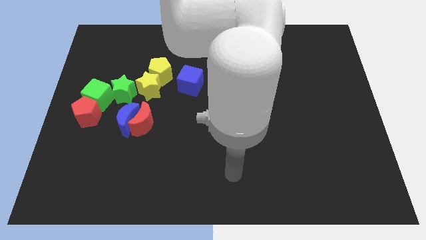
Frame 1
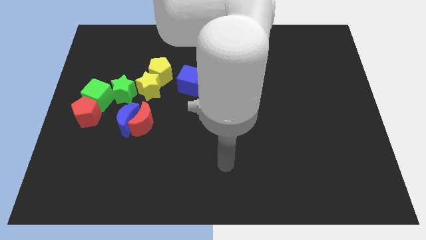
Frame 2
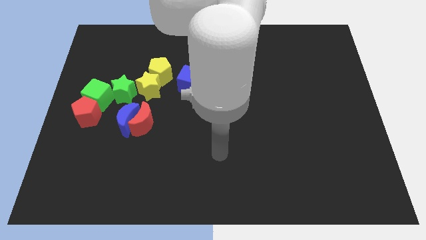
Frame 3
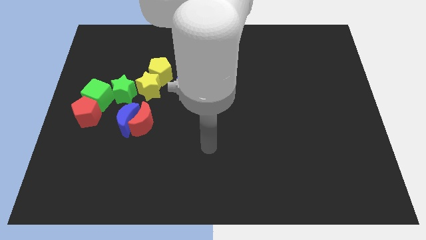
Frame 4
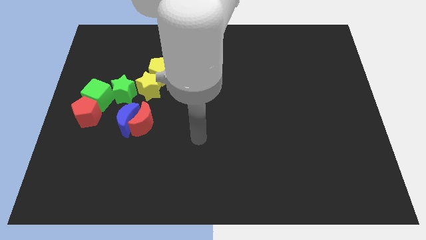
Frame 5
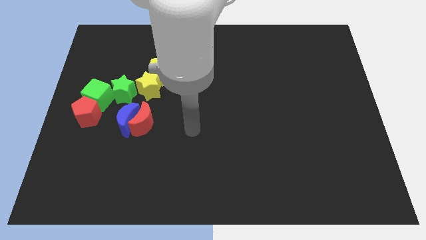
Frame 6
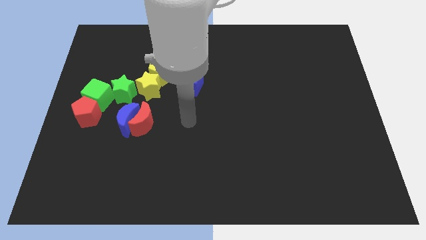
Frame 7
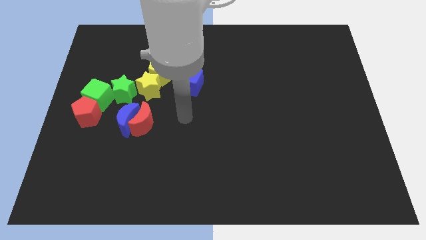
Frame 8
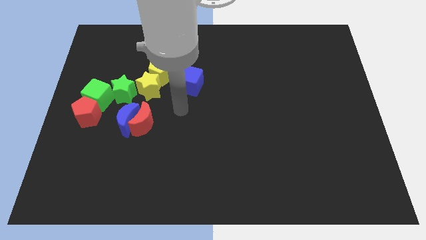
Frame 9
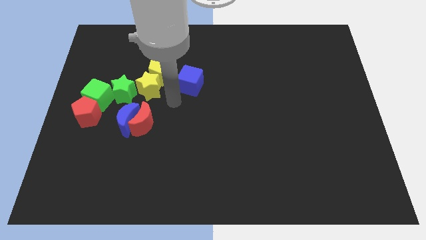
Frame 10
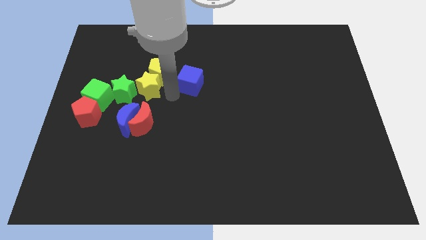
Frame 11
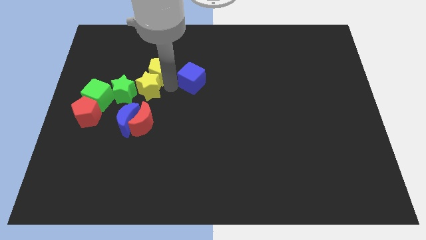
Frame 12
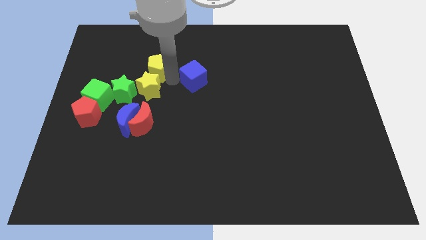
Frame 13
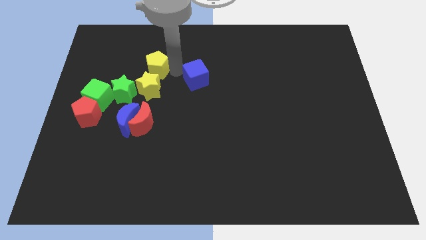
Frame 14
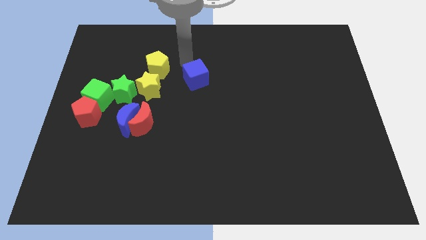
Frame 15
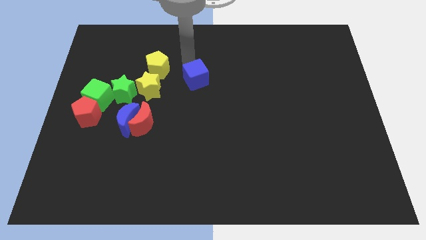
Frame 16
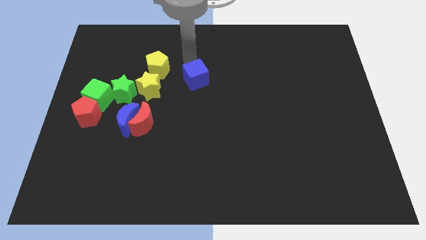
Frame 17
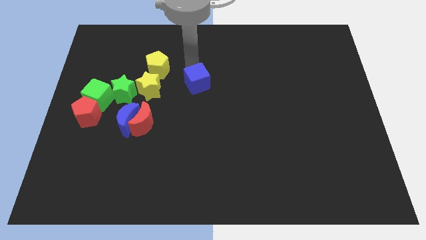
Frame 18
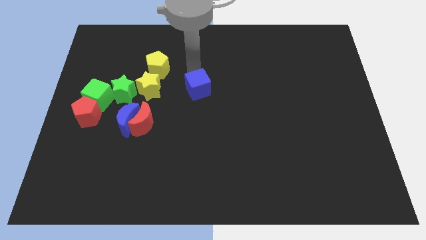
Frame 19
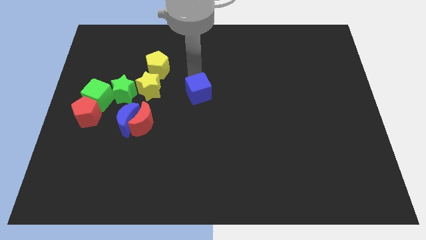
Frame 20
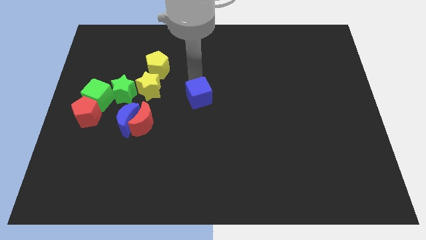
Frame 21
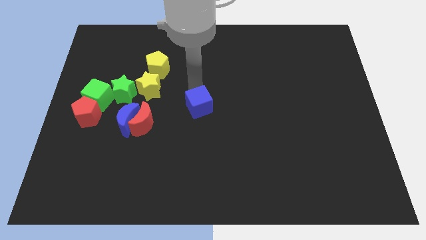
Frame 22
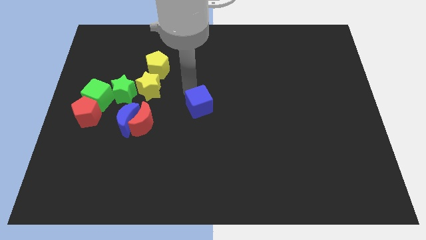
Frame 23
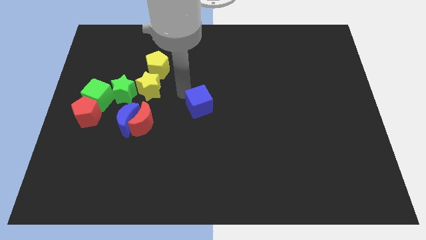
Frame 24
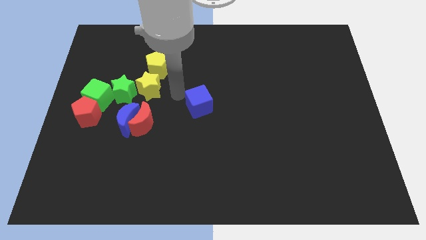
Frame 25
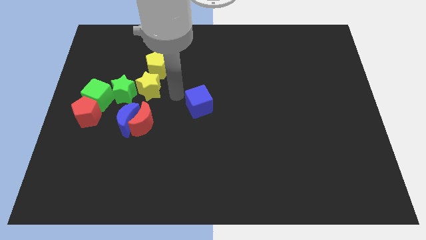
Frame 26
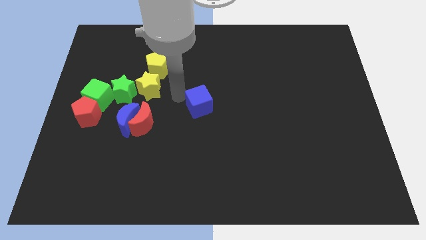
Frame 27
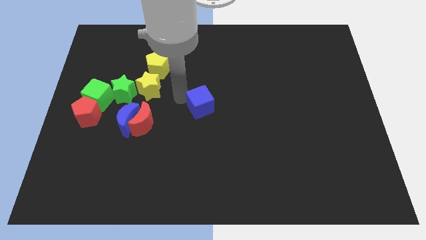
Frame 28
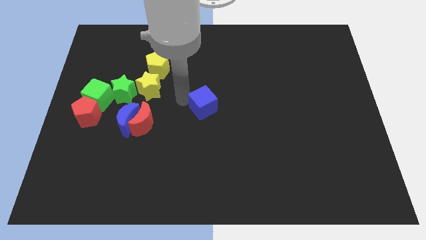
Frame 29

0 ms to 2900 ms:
slide the blue cube down and to the right a little bit

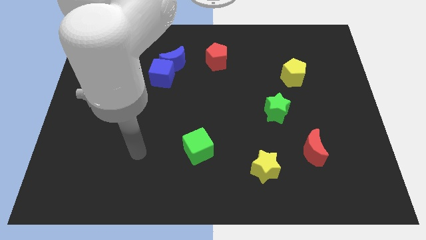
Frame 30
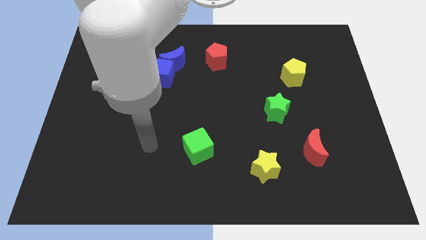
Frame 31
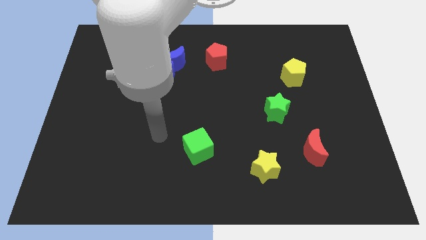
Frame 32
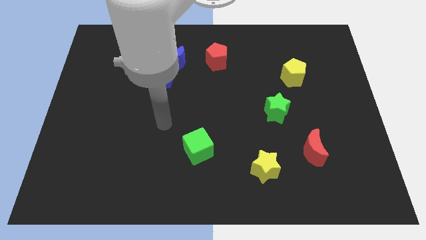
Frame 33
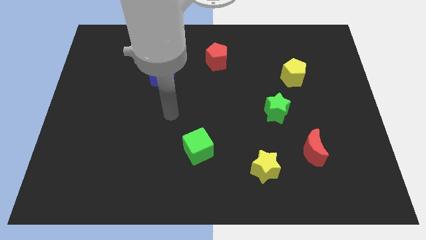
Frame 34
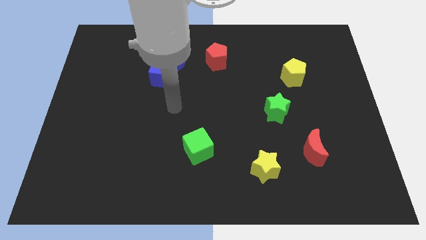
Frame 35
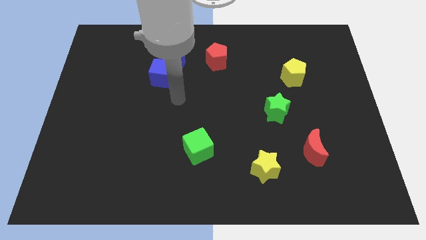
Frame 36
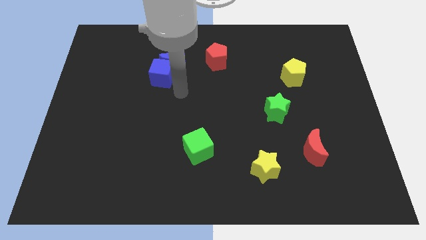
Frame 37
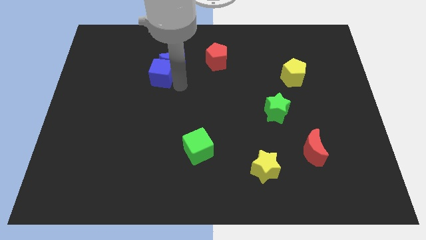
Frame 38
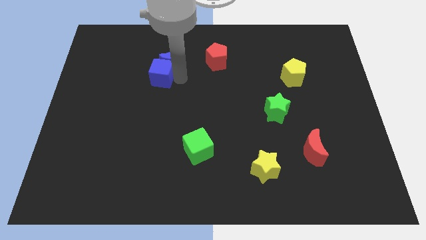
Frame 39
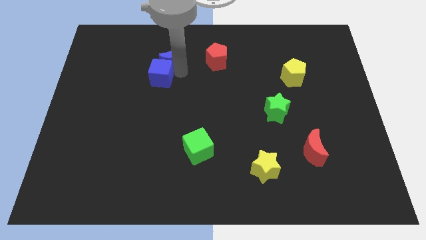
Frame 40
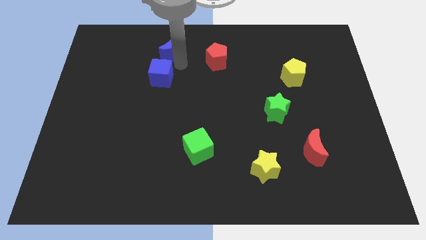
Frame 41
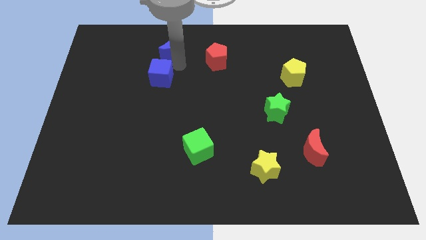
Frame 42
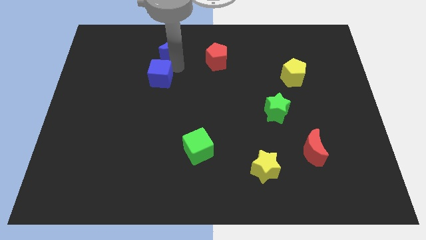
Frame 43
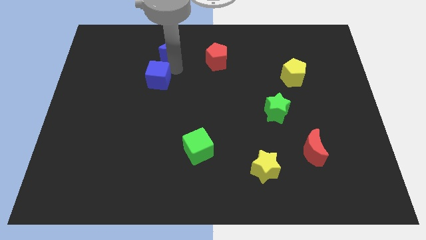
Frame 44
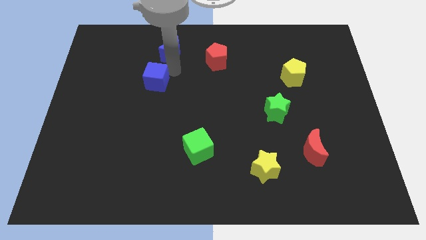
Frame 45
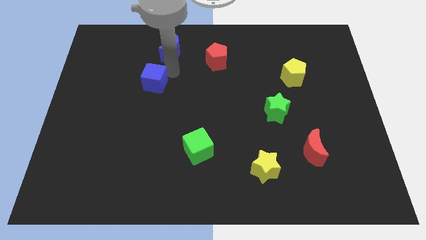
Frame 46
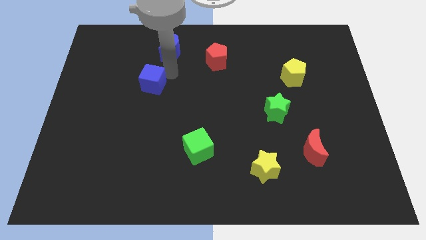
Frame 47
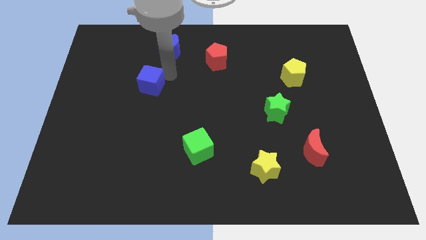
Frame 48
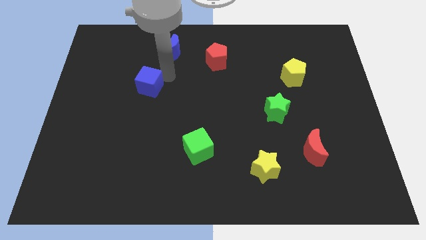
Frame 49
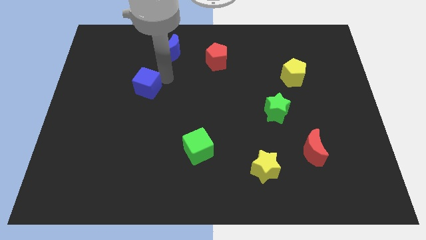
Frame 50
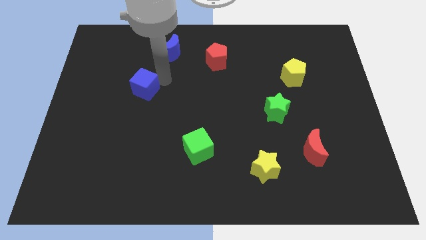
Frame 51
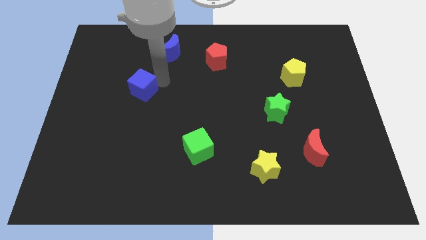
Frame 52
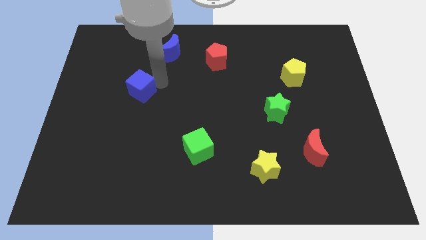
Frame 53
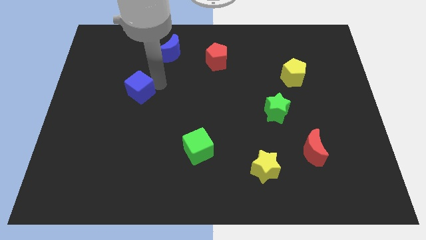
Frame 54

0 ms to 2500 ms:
slightly push the blue cube diagonally downwards and to the left

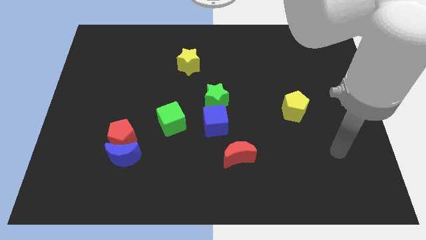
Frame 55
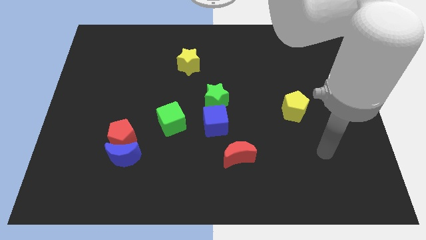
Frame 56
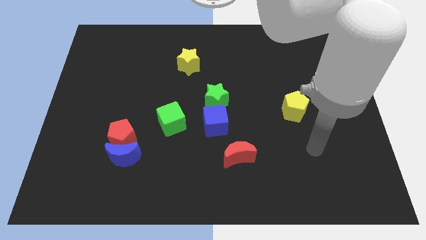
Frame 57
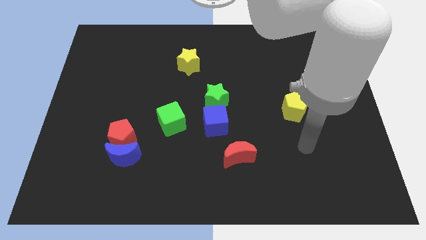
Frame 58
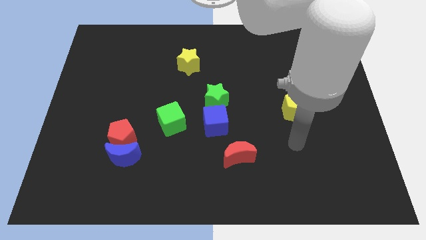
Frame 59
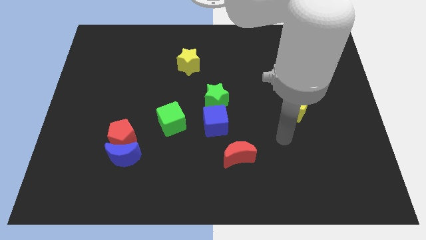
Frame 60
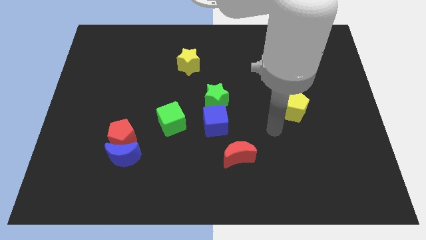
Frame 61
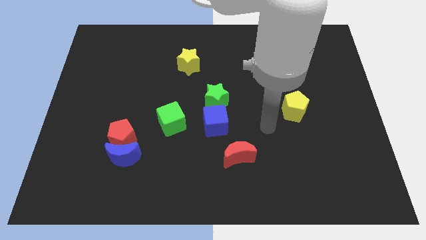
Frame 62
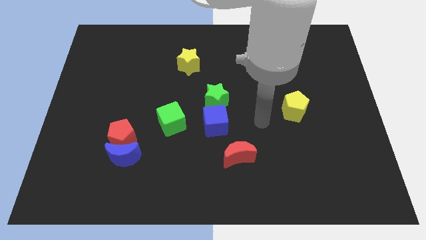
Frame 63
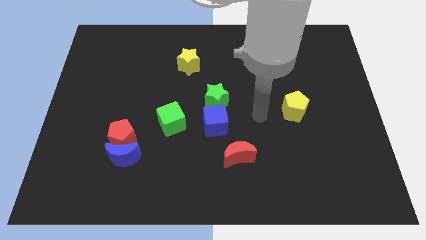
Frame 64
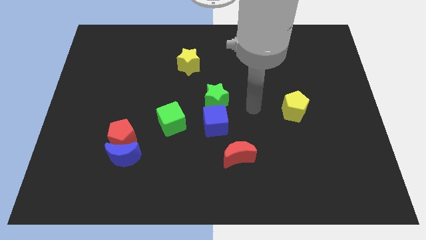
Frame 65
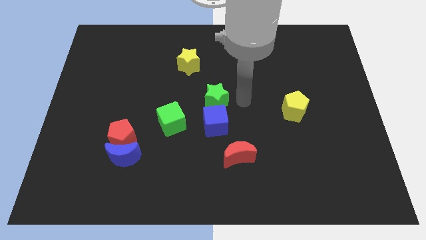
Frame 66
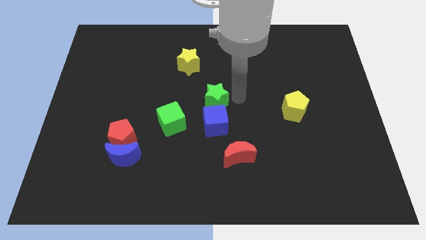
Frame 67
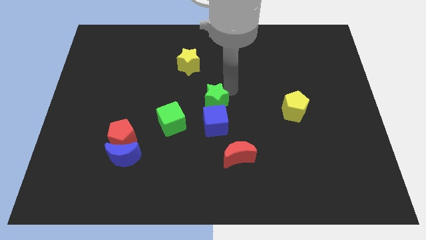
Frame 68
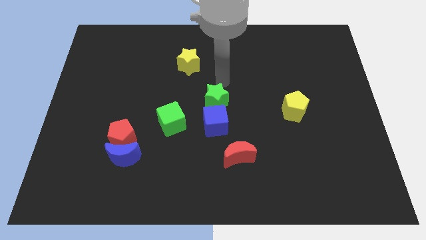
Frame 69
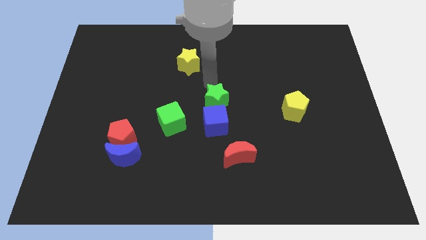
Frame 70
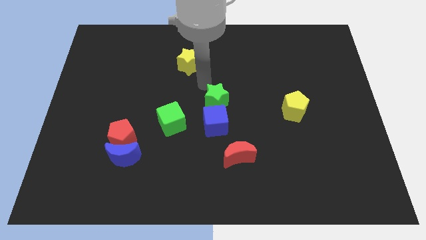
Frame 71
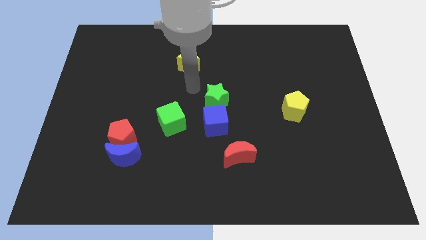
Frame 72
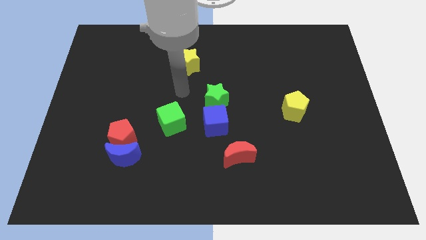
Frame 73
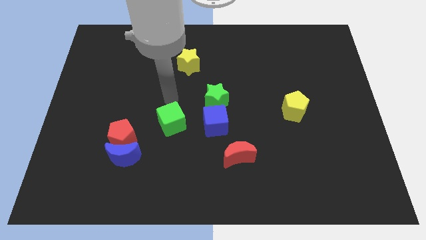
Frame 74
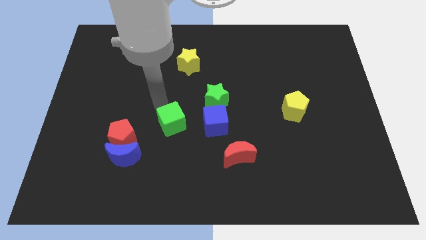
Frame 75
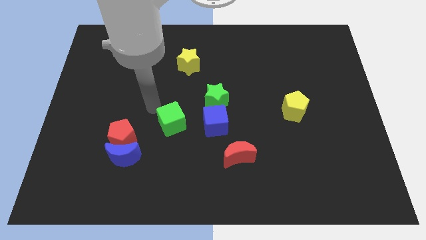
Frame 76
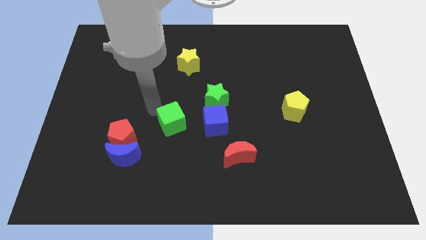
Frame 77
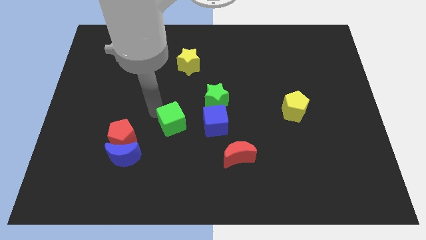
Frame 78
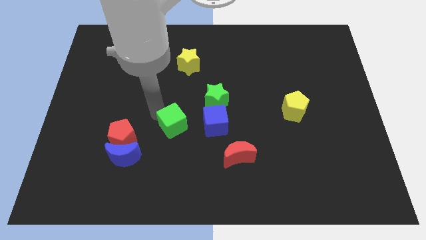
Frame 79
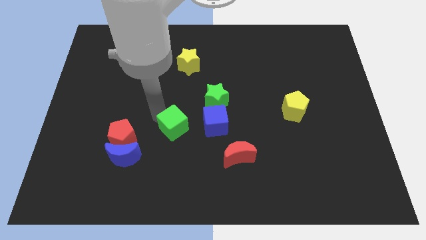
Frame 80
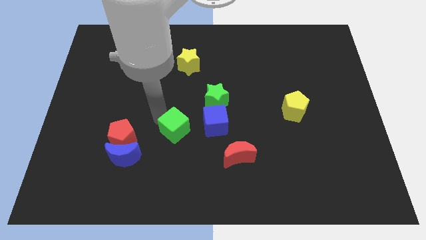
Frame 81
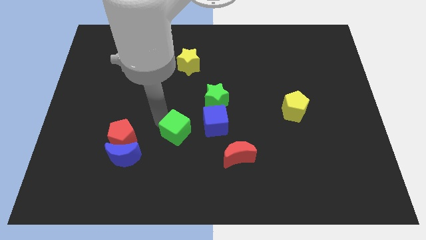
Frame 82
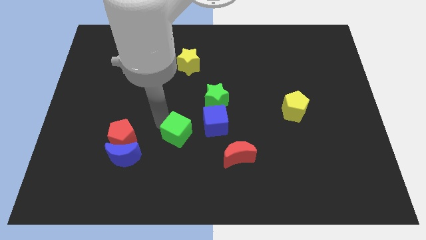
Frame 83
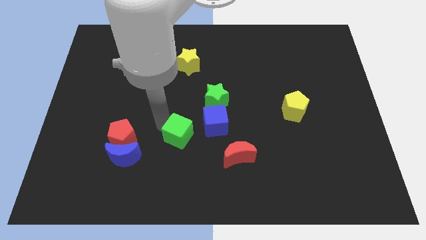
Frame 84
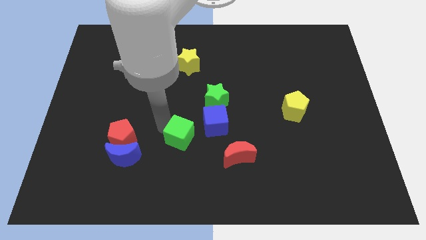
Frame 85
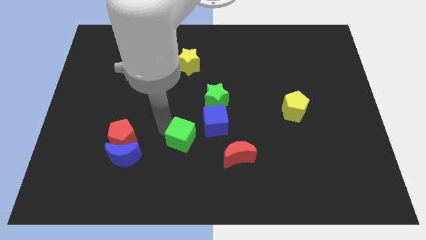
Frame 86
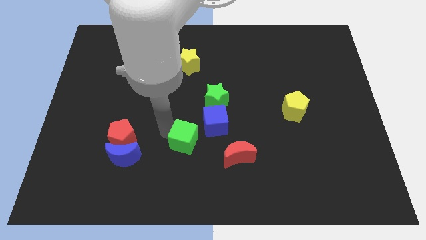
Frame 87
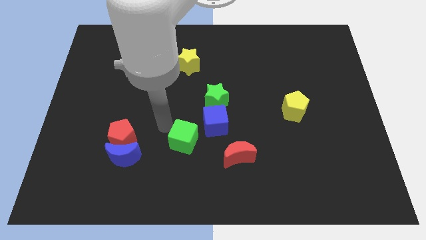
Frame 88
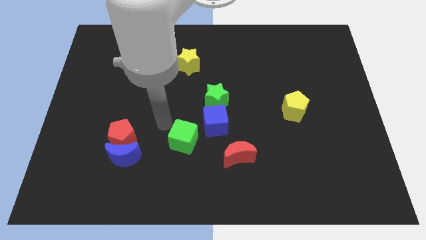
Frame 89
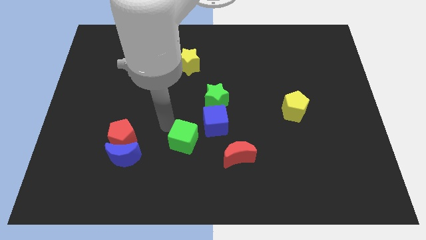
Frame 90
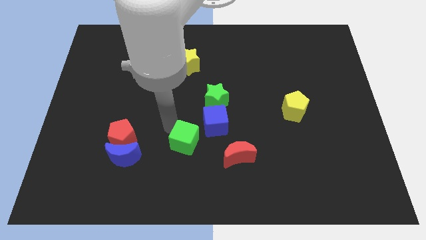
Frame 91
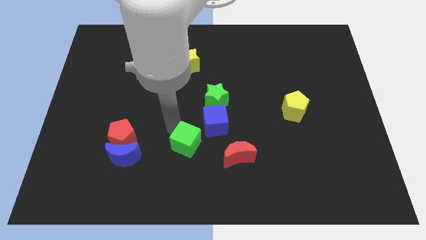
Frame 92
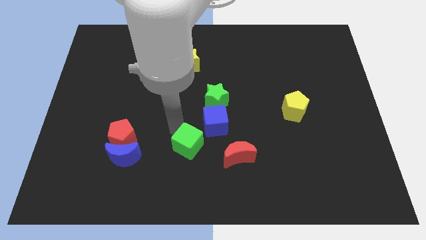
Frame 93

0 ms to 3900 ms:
move the green cube a little downwards and then right
